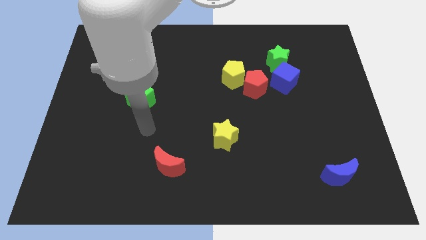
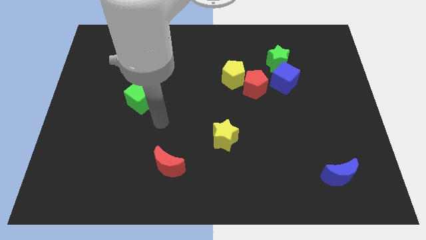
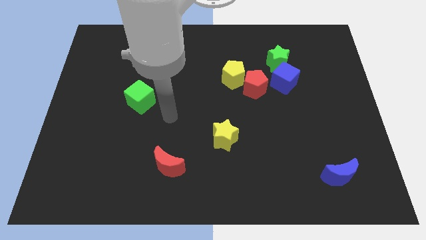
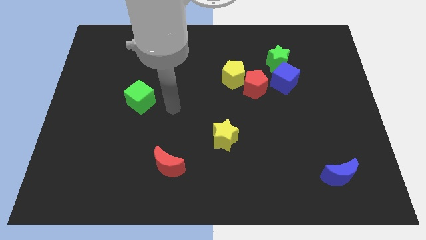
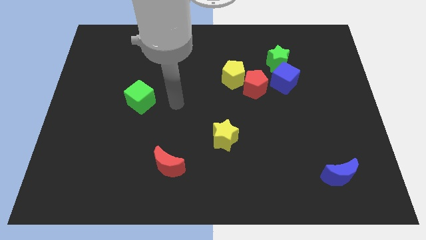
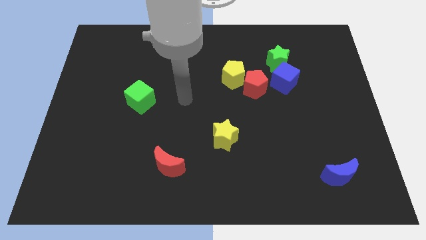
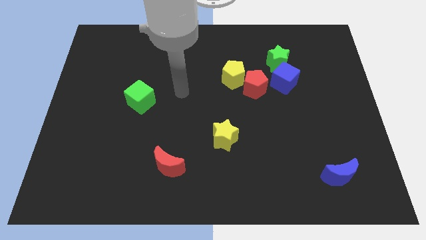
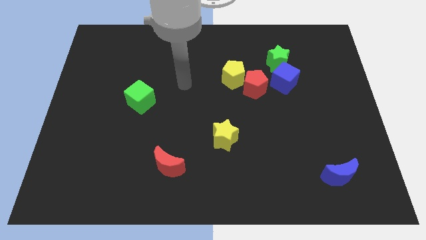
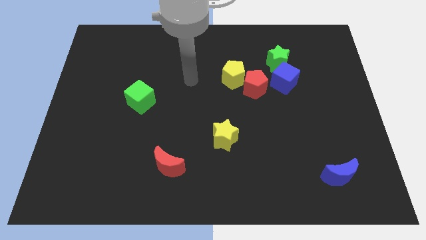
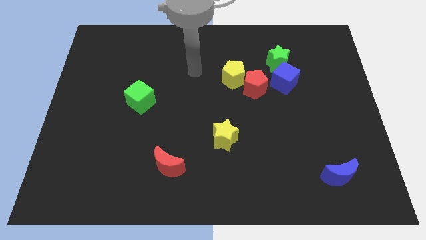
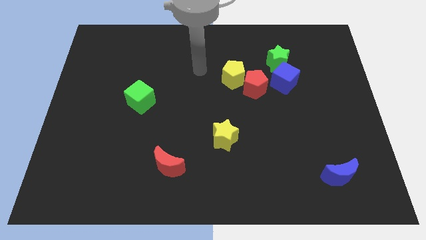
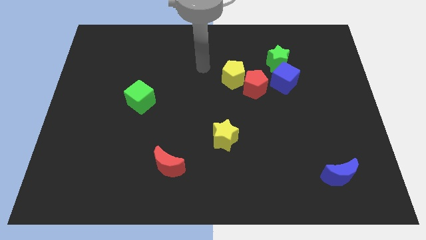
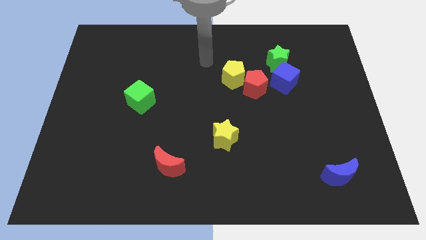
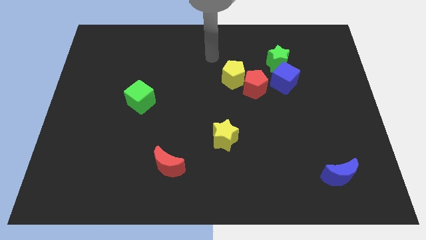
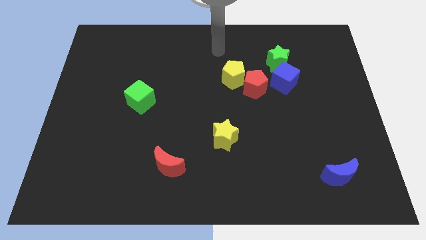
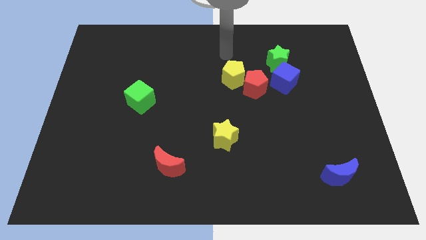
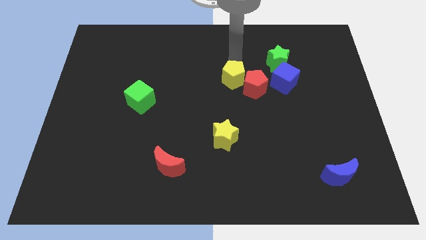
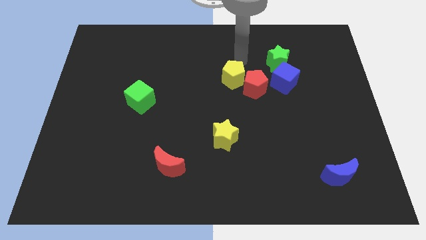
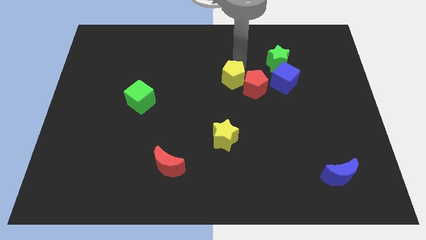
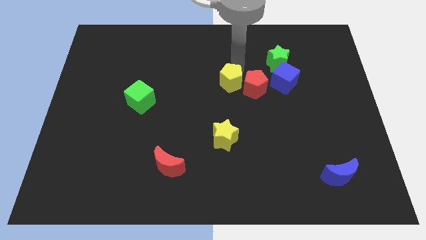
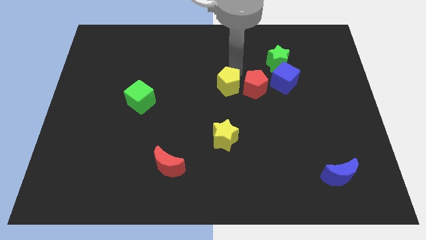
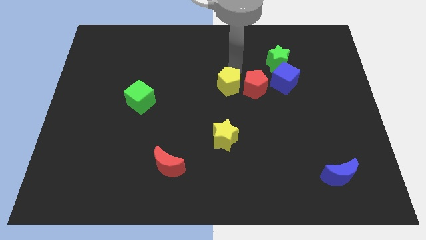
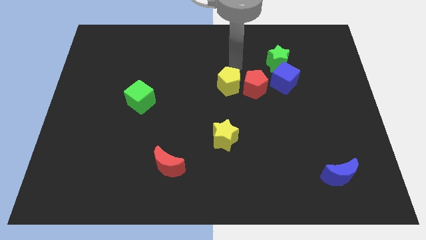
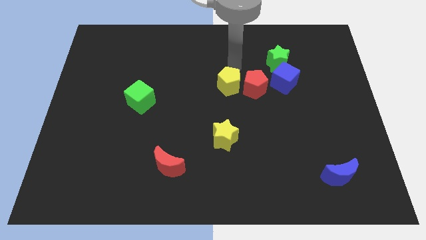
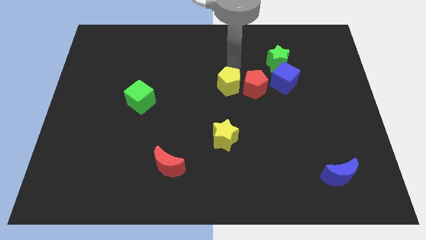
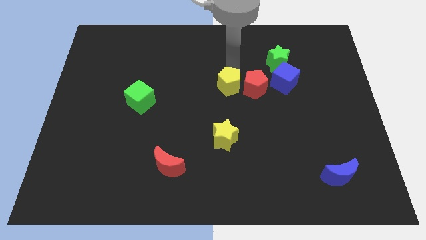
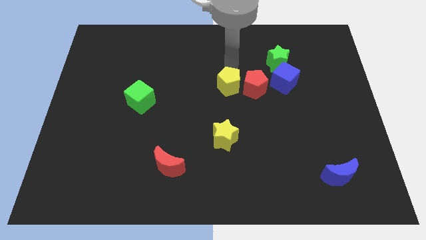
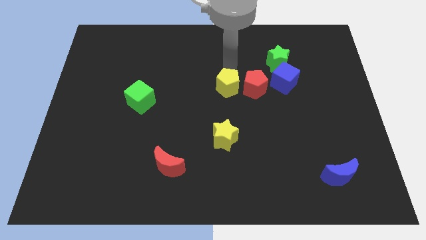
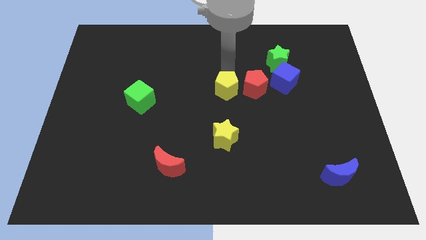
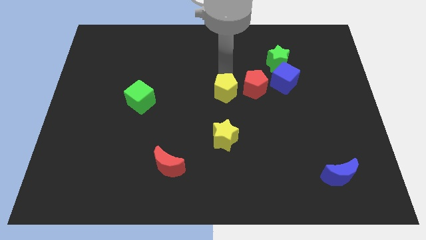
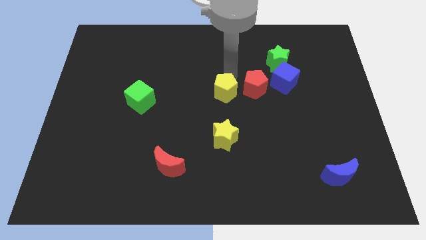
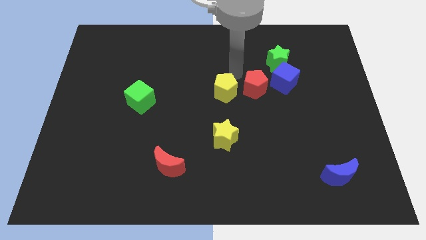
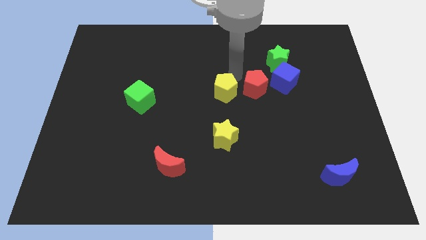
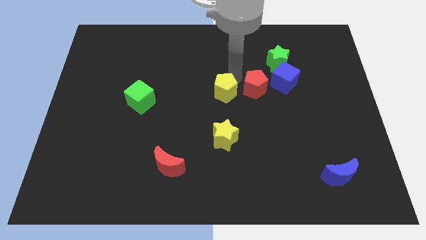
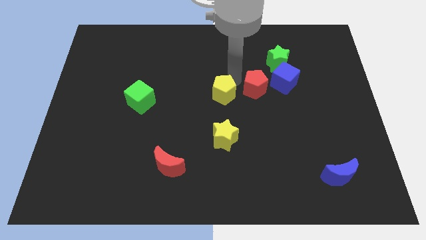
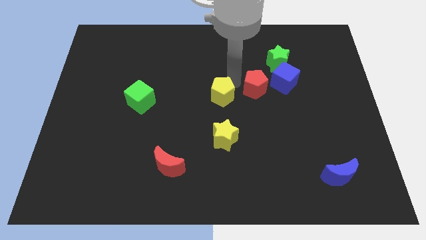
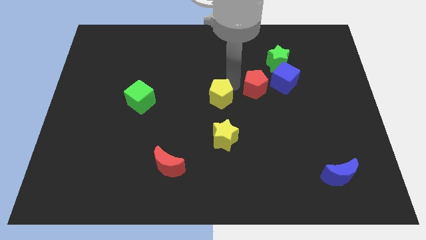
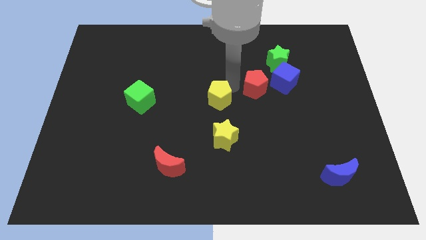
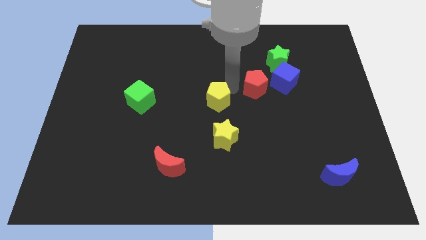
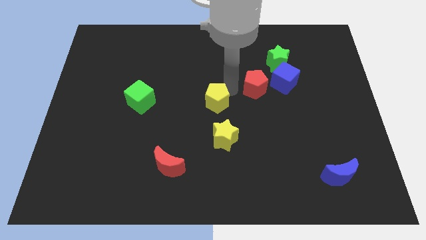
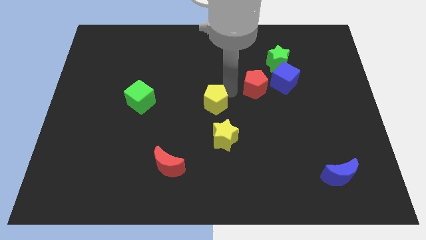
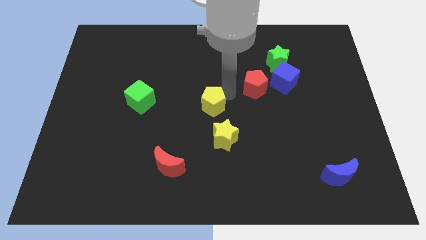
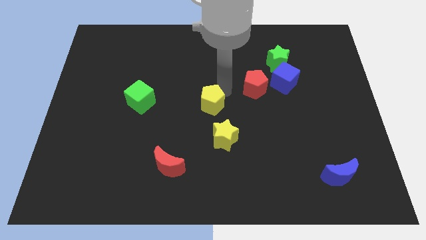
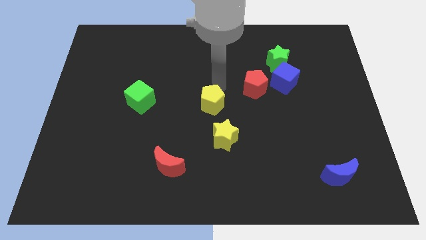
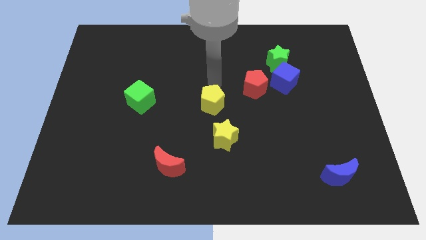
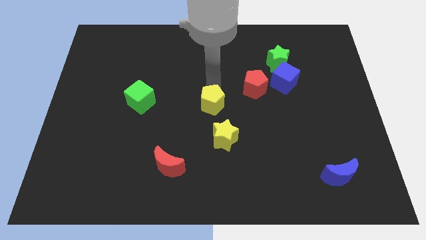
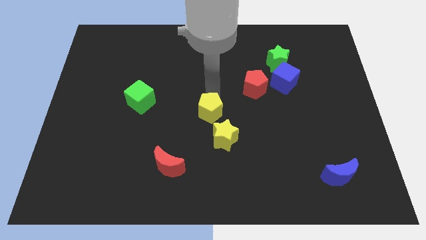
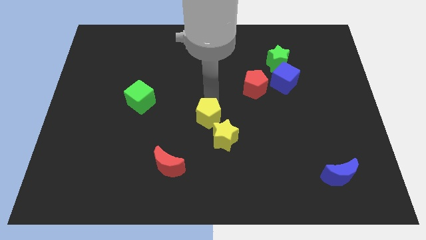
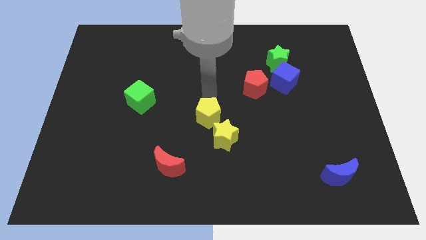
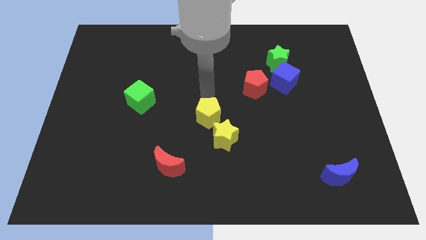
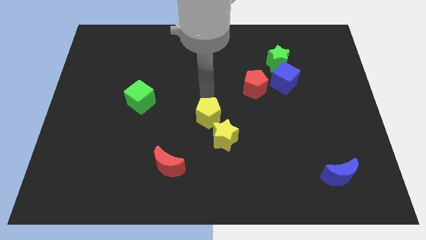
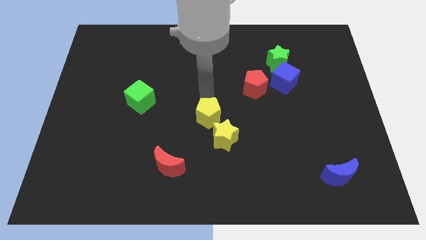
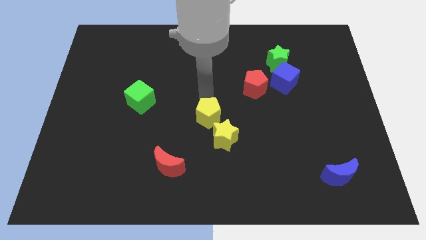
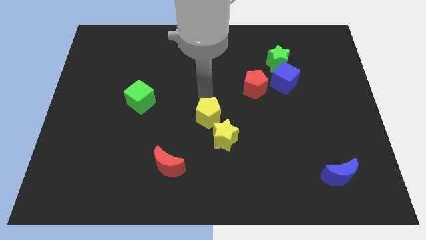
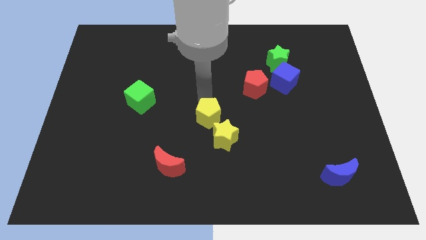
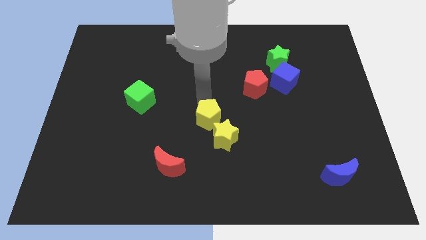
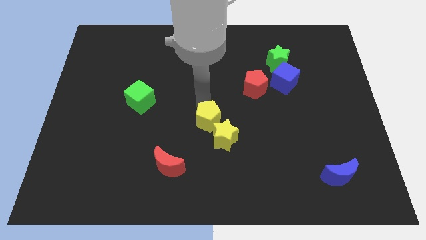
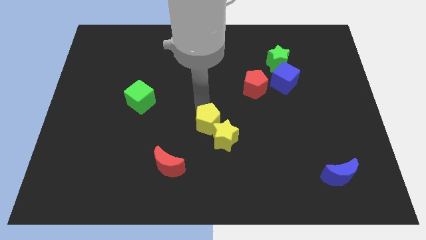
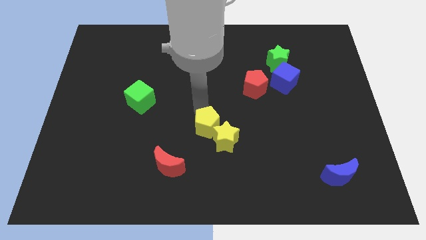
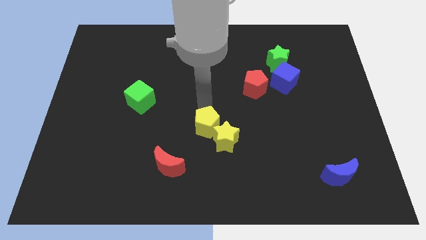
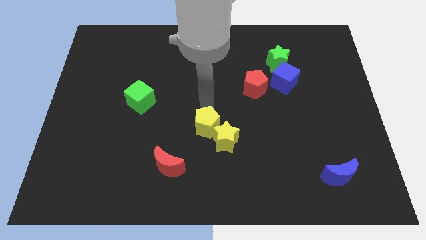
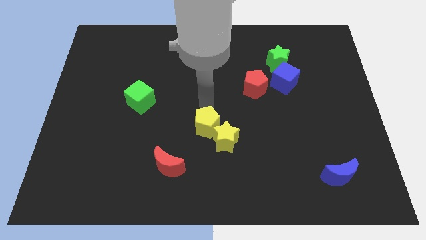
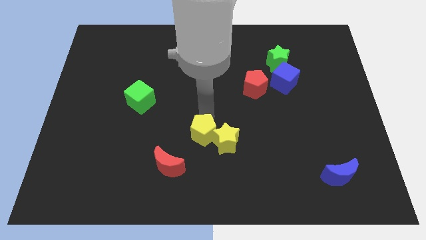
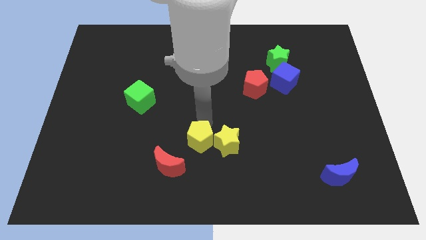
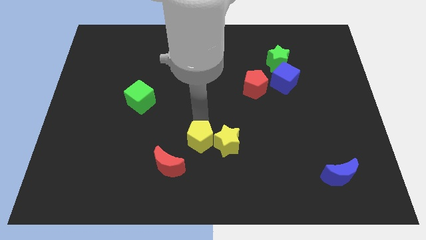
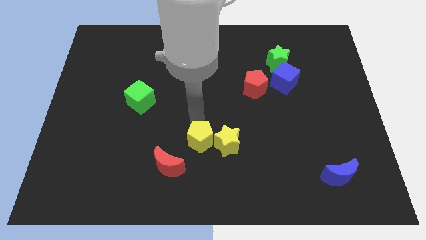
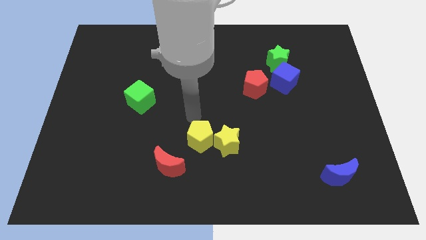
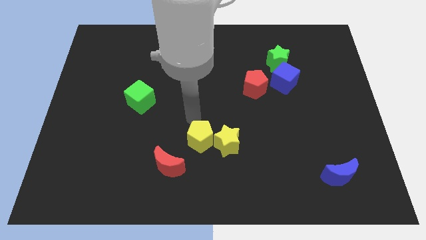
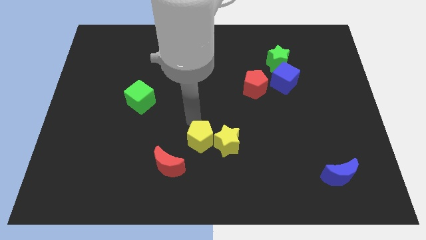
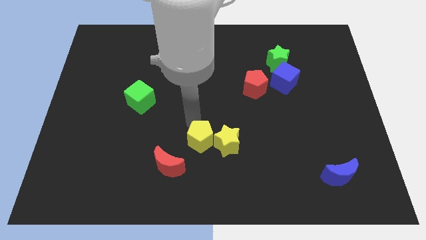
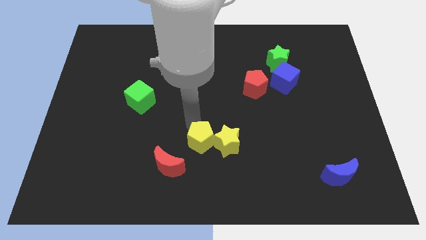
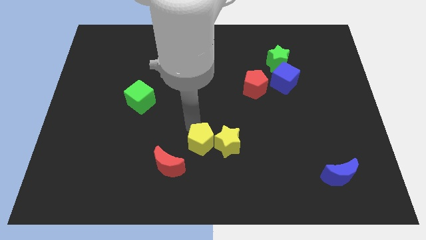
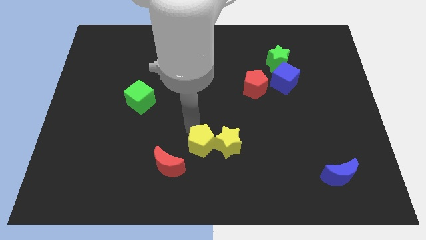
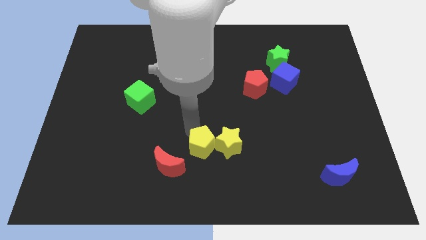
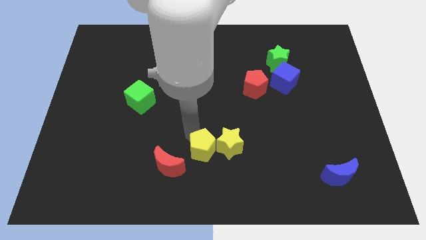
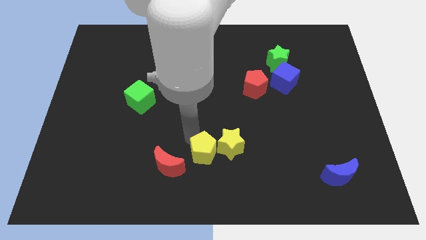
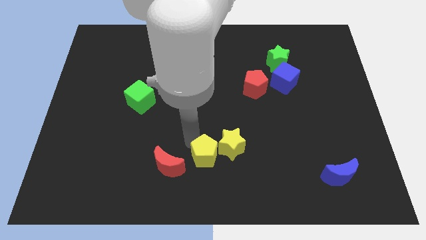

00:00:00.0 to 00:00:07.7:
put the yellow pentagon to the bottom
